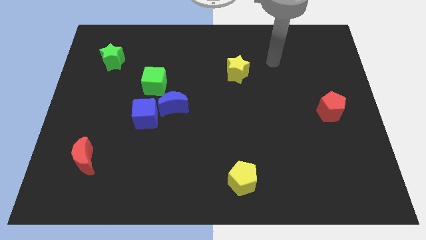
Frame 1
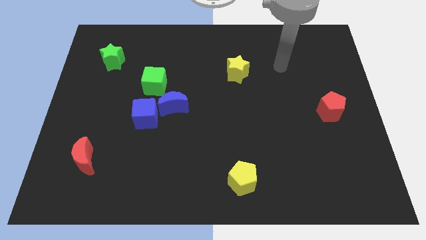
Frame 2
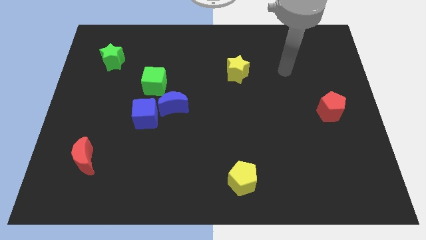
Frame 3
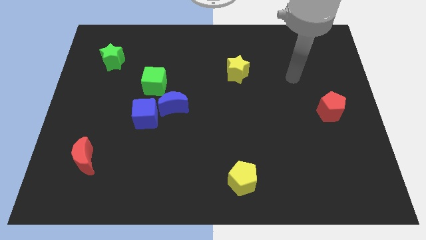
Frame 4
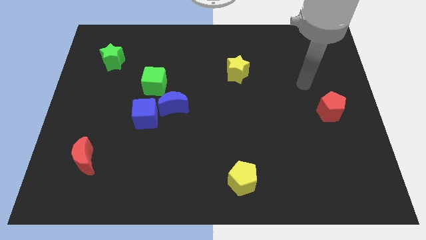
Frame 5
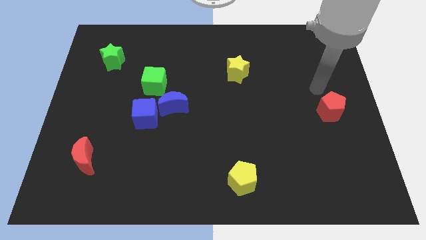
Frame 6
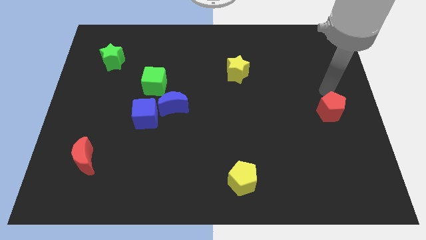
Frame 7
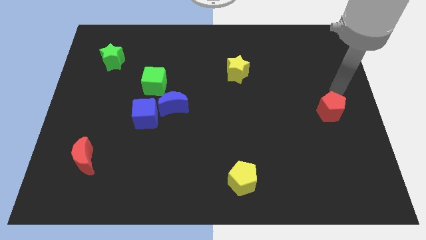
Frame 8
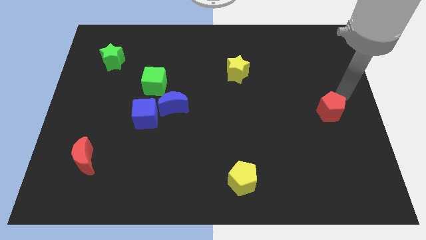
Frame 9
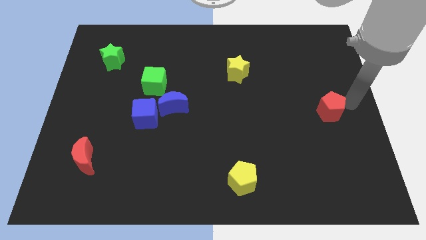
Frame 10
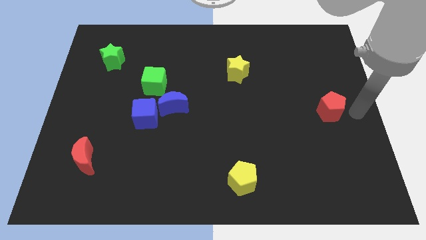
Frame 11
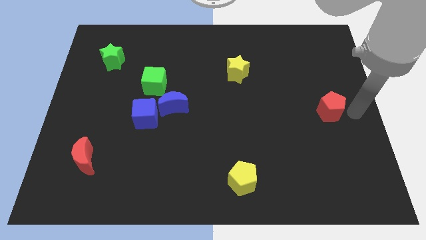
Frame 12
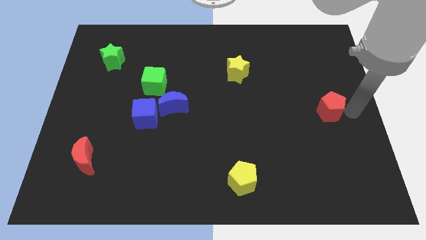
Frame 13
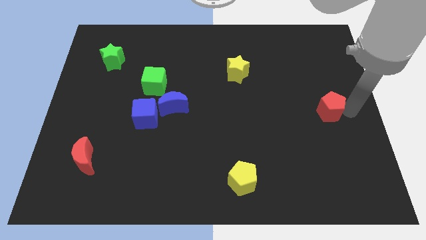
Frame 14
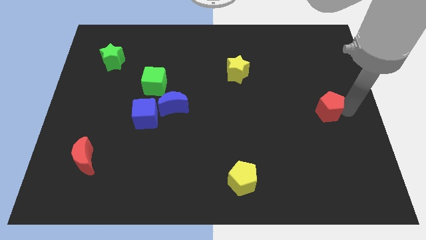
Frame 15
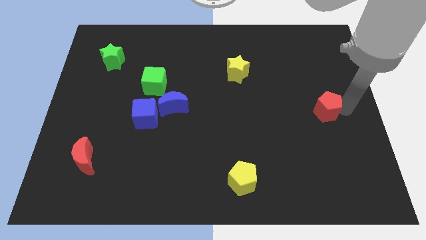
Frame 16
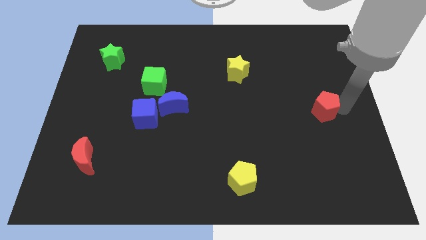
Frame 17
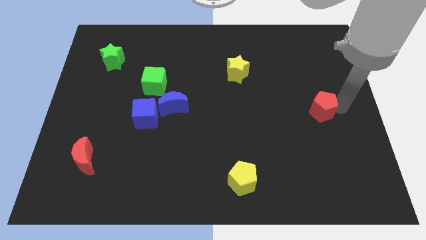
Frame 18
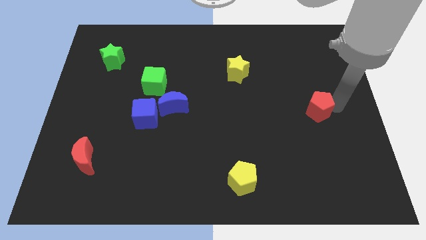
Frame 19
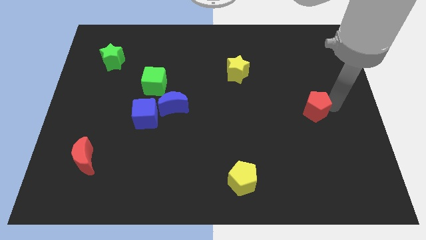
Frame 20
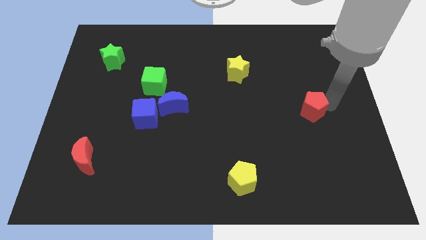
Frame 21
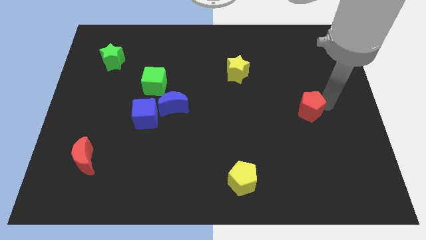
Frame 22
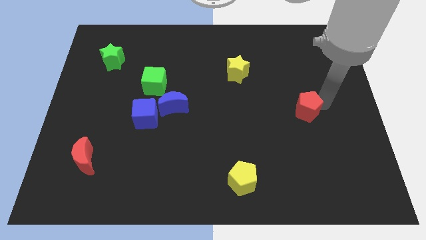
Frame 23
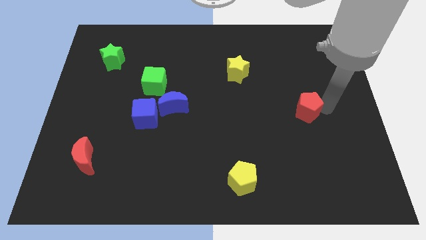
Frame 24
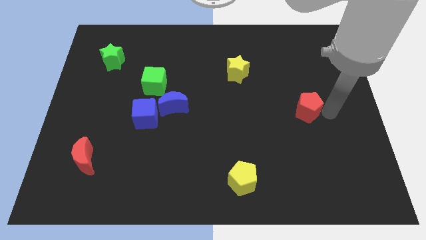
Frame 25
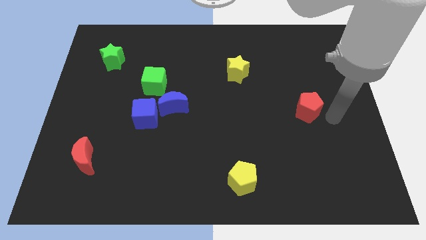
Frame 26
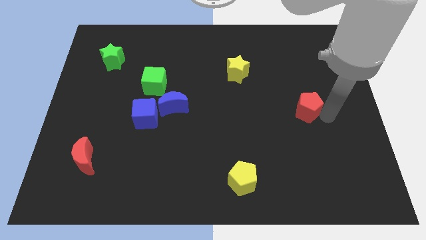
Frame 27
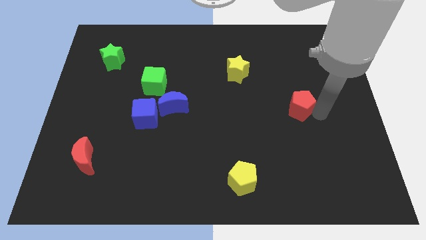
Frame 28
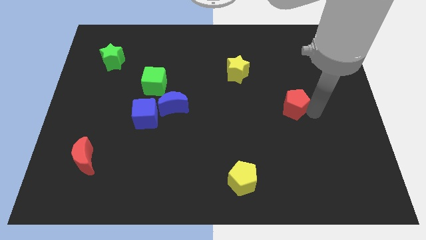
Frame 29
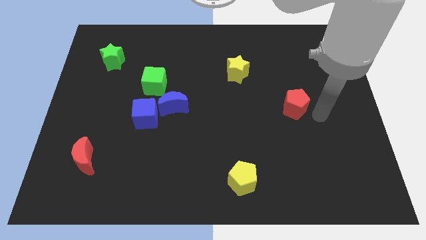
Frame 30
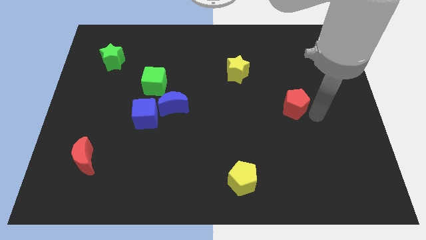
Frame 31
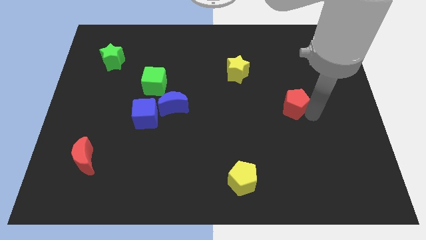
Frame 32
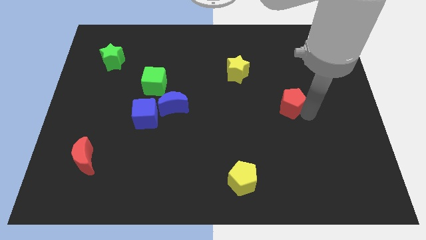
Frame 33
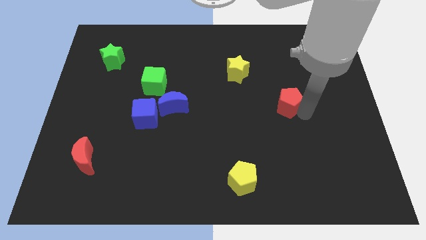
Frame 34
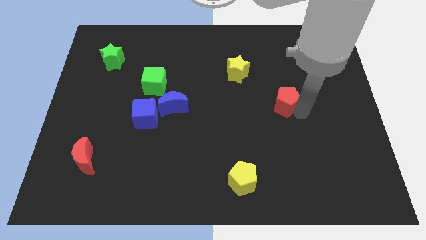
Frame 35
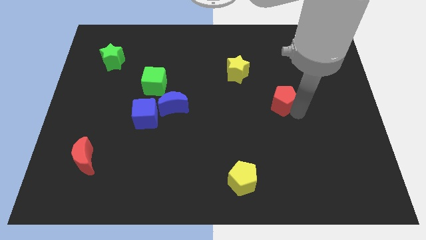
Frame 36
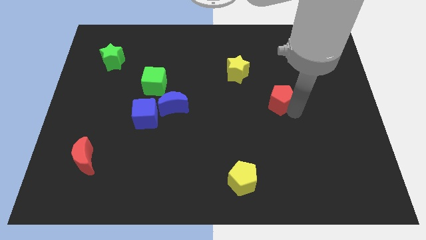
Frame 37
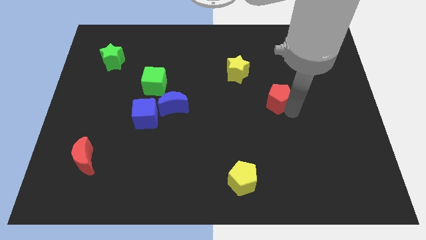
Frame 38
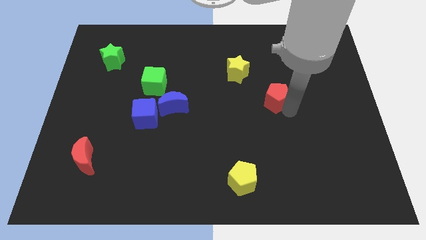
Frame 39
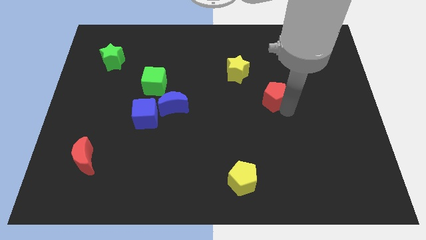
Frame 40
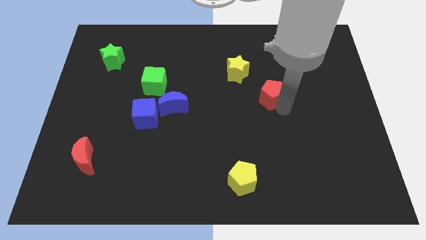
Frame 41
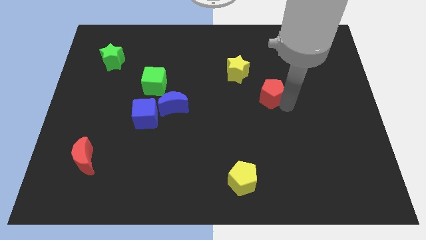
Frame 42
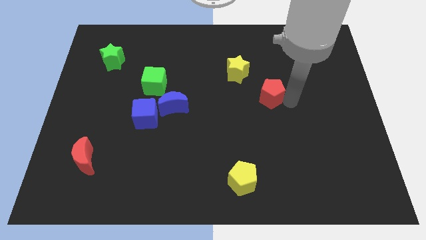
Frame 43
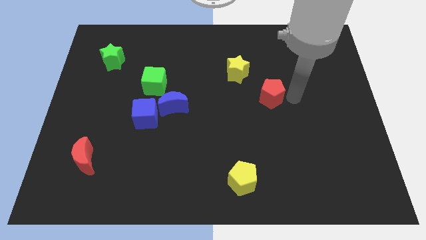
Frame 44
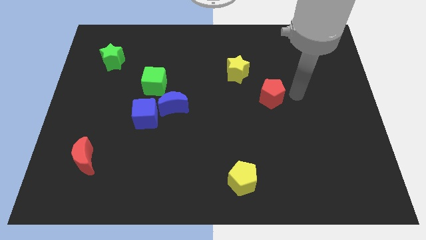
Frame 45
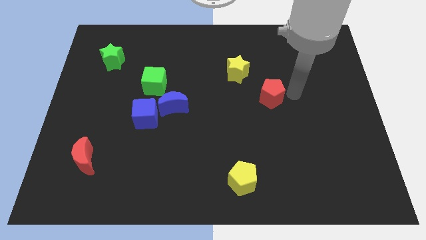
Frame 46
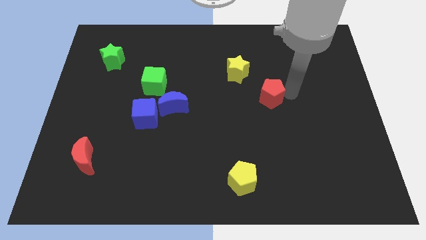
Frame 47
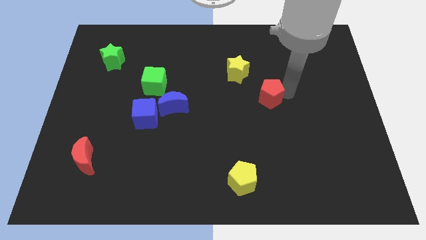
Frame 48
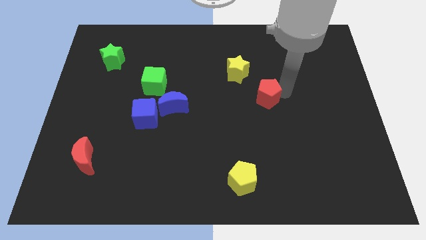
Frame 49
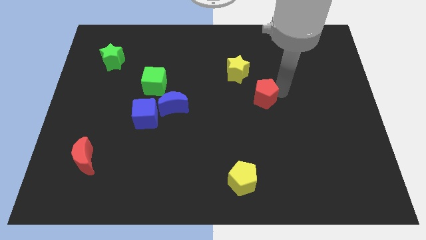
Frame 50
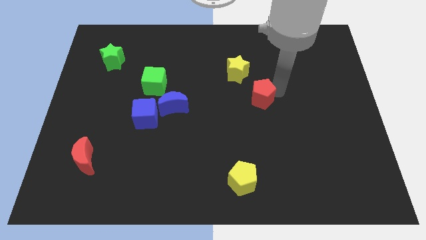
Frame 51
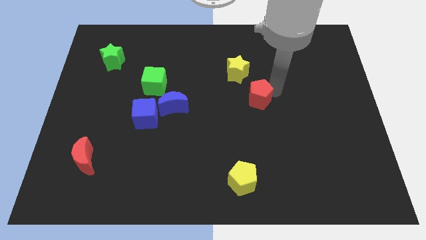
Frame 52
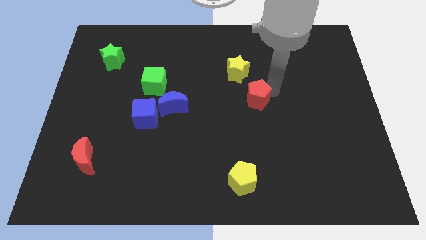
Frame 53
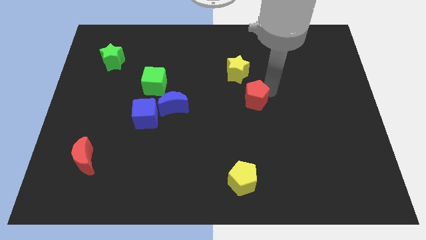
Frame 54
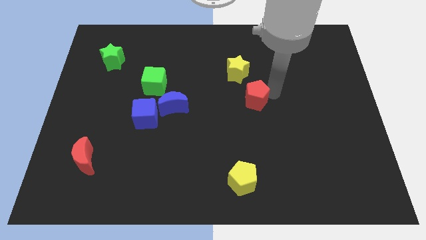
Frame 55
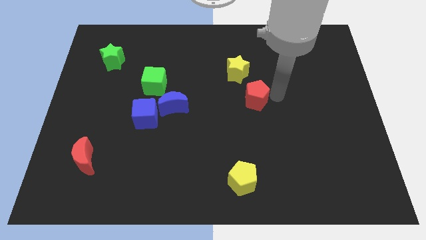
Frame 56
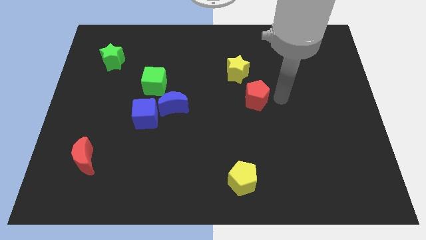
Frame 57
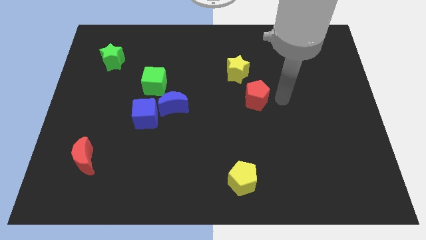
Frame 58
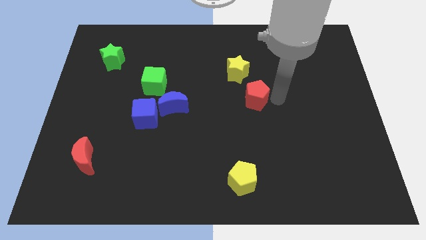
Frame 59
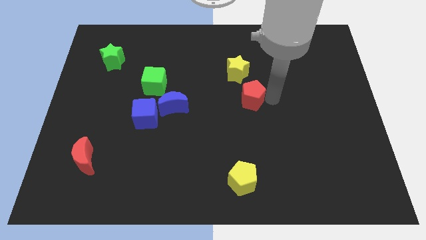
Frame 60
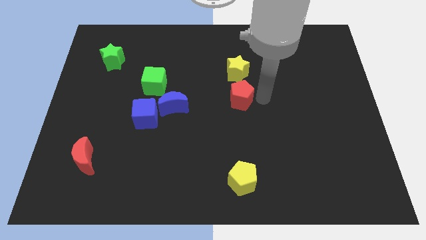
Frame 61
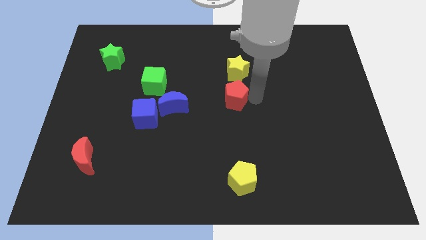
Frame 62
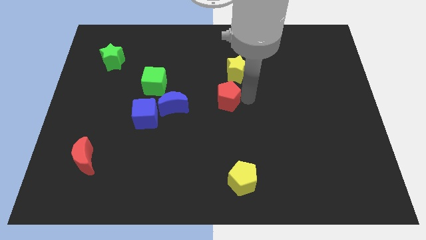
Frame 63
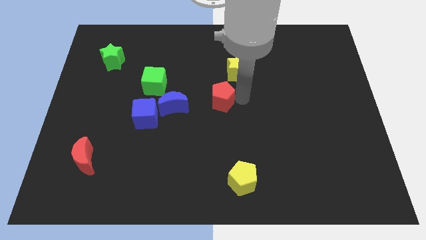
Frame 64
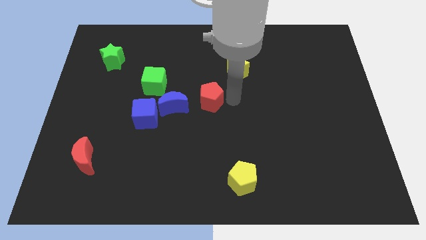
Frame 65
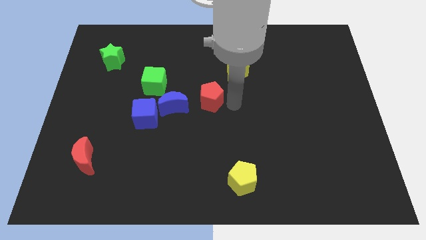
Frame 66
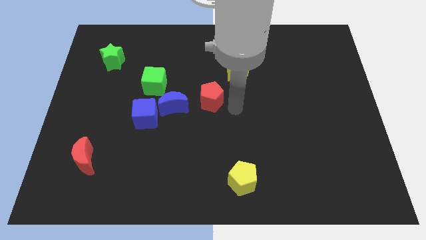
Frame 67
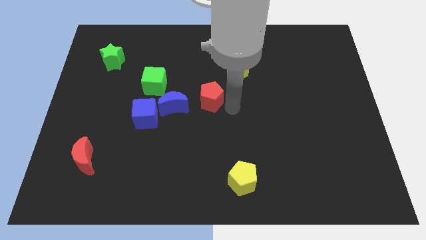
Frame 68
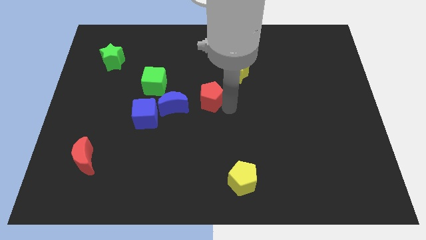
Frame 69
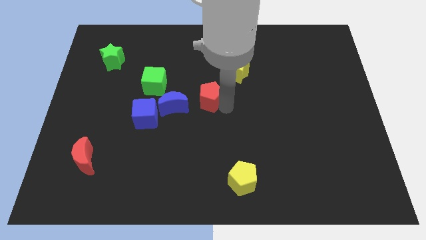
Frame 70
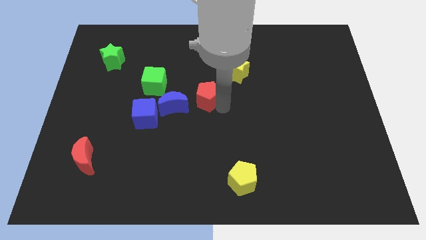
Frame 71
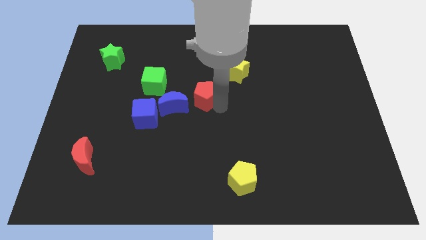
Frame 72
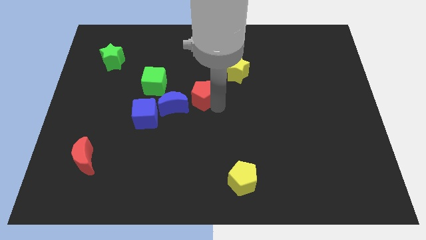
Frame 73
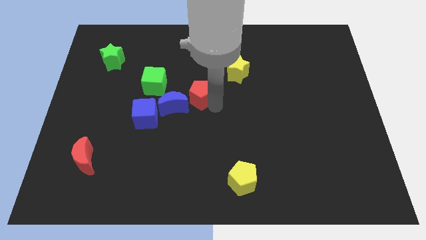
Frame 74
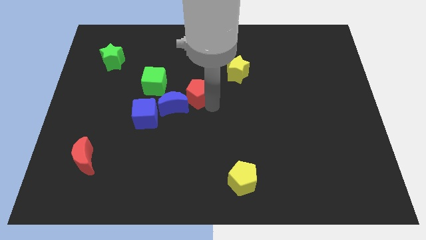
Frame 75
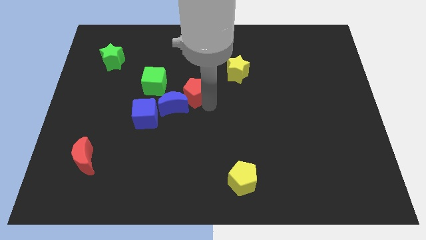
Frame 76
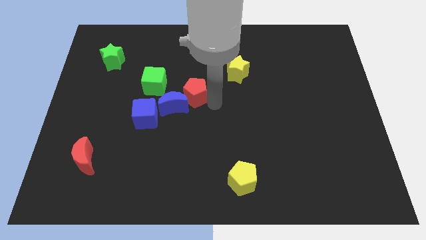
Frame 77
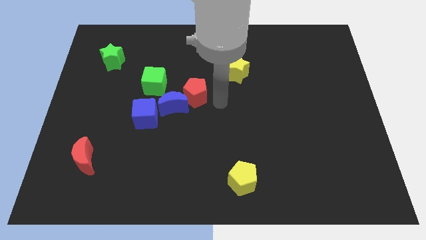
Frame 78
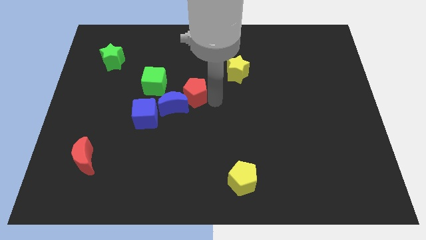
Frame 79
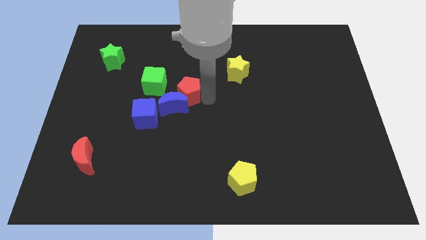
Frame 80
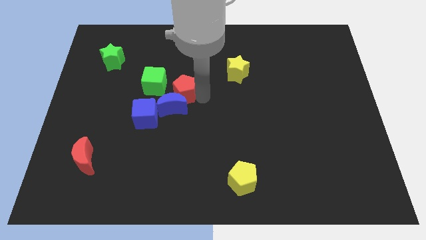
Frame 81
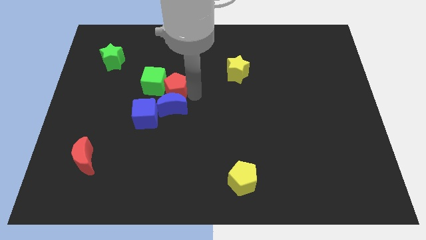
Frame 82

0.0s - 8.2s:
put the red pentagon close to the green cube
